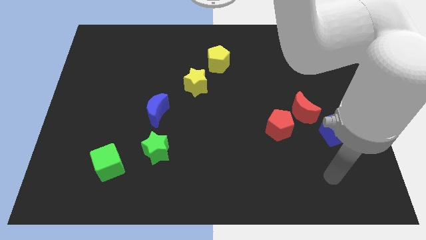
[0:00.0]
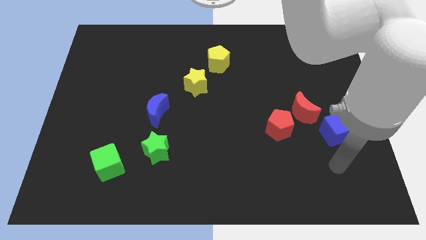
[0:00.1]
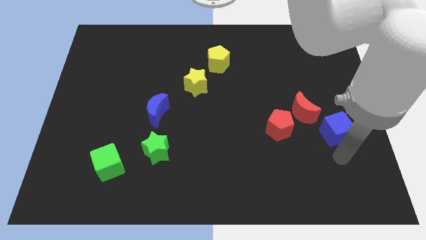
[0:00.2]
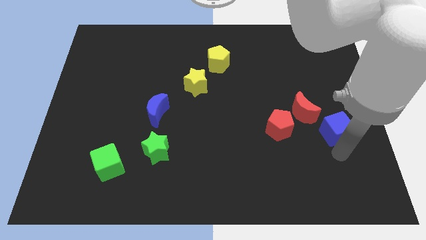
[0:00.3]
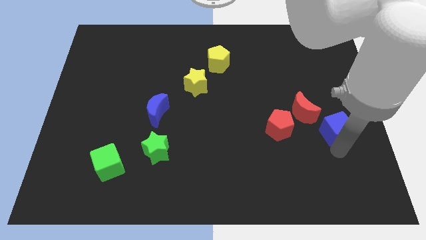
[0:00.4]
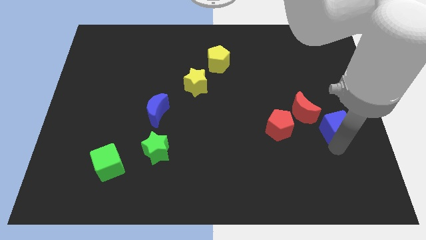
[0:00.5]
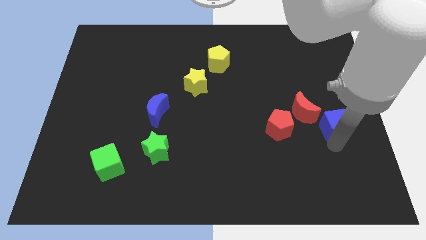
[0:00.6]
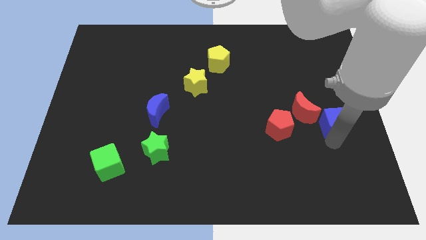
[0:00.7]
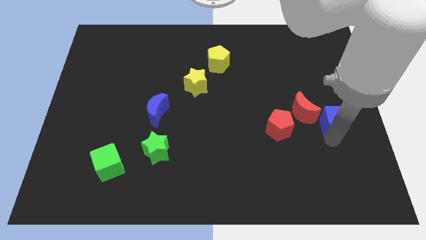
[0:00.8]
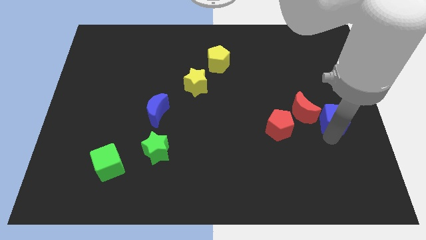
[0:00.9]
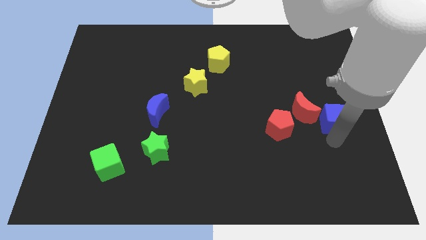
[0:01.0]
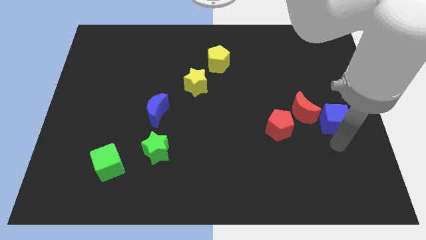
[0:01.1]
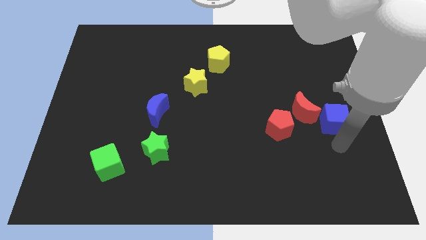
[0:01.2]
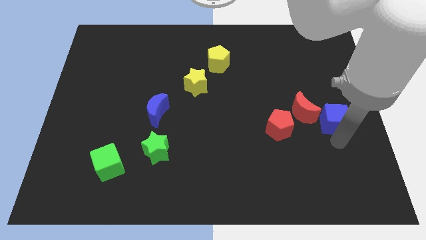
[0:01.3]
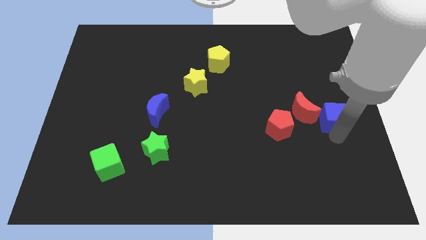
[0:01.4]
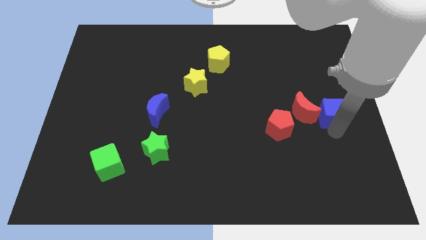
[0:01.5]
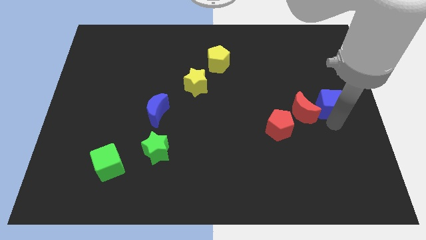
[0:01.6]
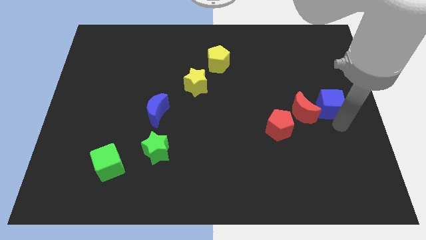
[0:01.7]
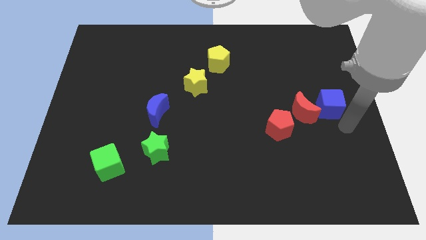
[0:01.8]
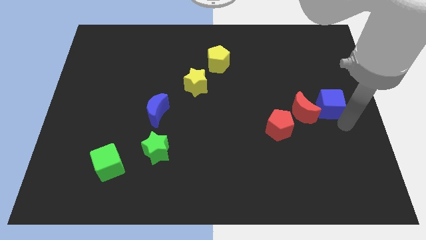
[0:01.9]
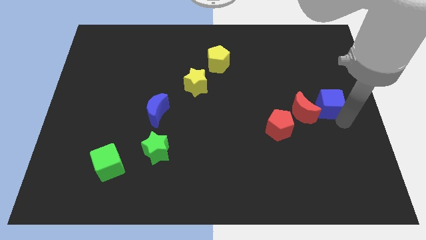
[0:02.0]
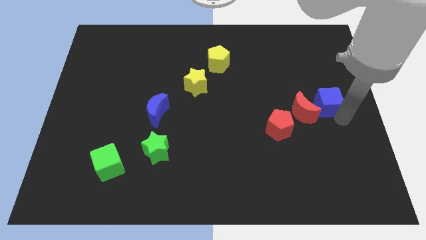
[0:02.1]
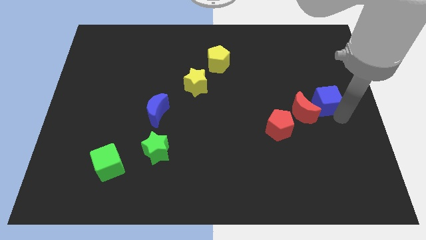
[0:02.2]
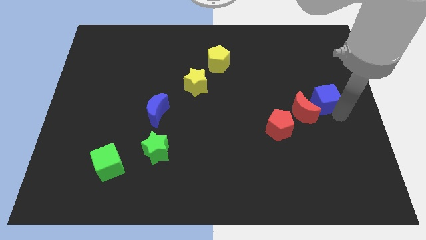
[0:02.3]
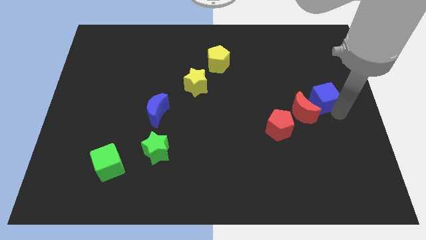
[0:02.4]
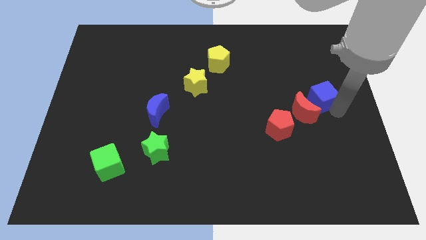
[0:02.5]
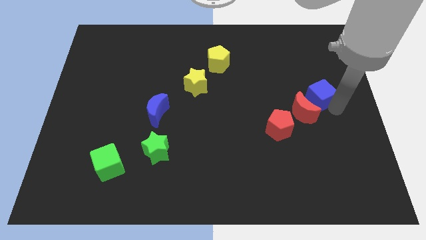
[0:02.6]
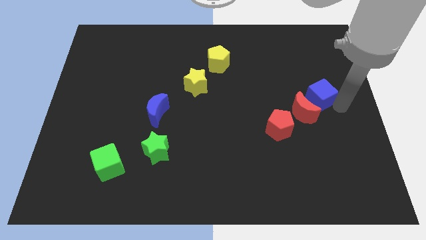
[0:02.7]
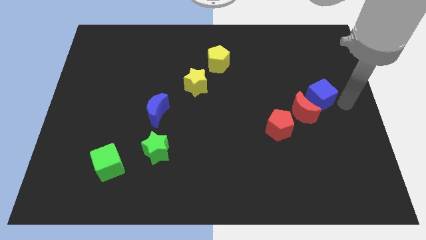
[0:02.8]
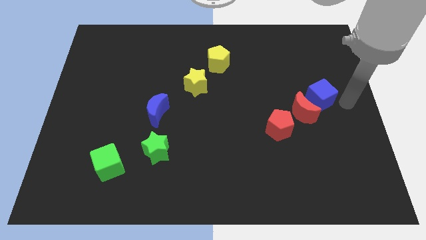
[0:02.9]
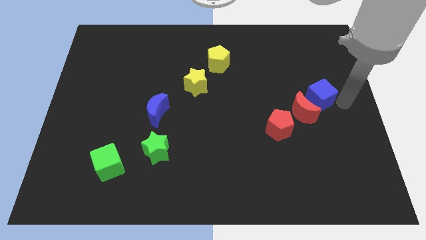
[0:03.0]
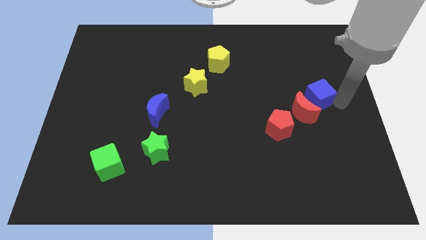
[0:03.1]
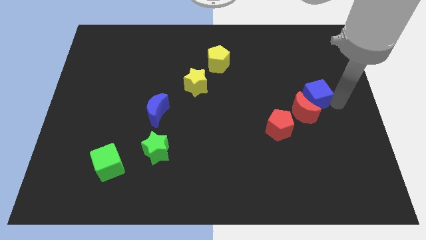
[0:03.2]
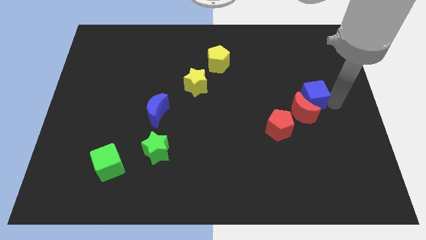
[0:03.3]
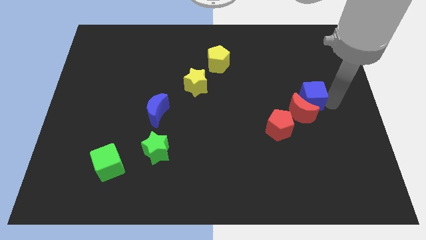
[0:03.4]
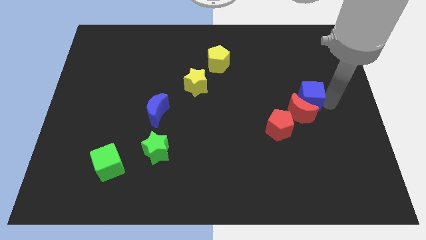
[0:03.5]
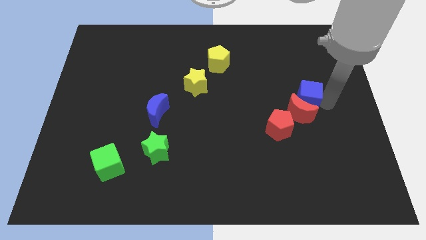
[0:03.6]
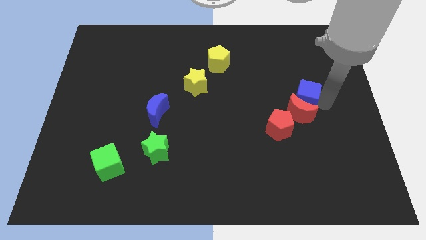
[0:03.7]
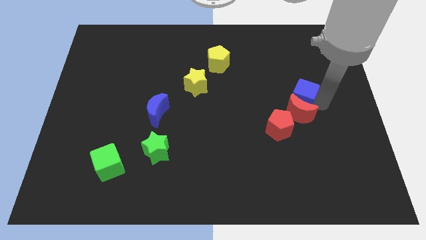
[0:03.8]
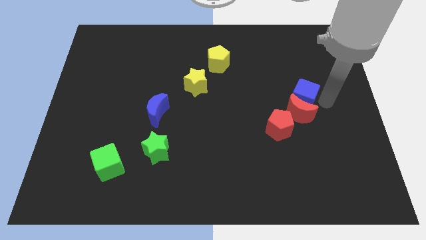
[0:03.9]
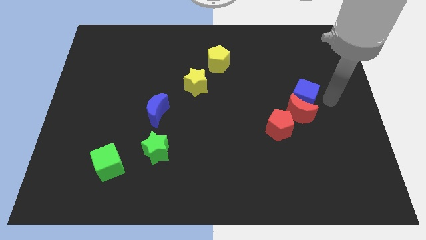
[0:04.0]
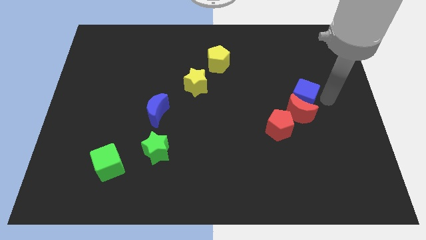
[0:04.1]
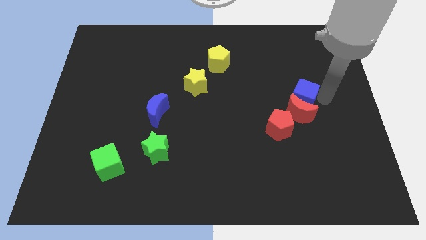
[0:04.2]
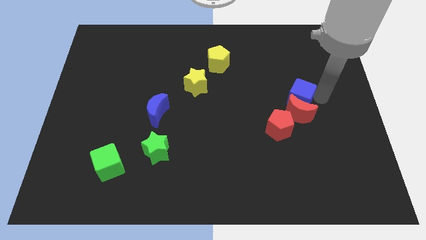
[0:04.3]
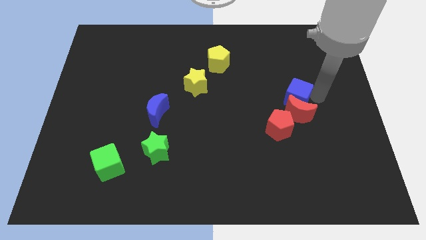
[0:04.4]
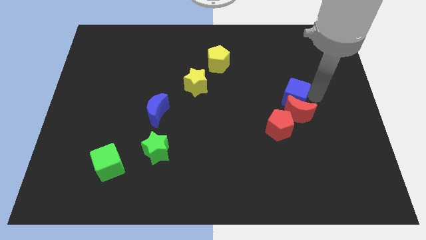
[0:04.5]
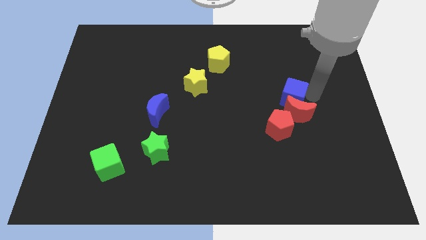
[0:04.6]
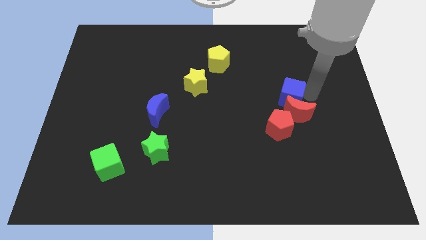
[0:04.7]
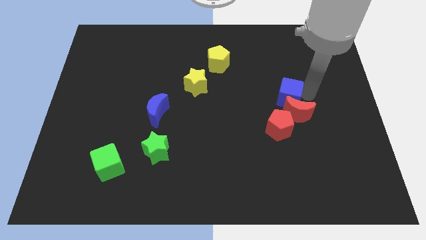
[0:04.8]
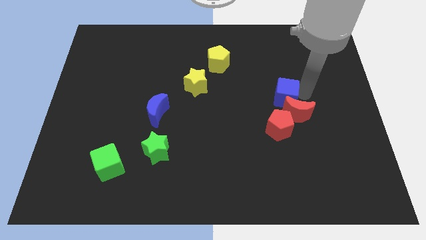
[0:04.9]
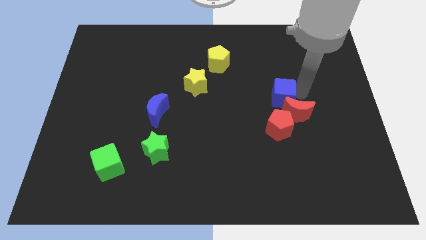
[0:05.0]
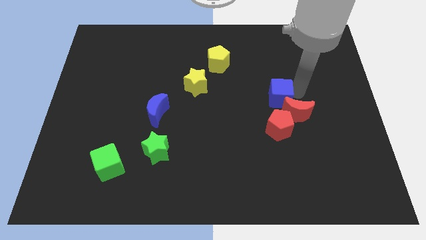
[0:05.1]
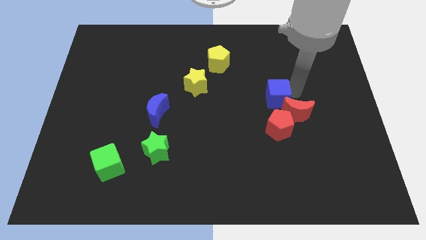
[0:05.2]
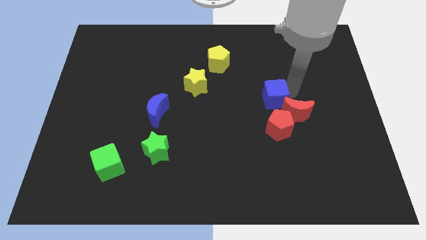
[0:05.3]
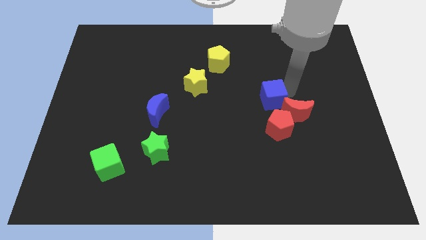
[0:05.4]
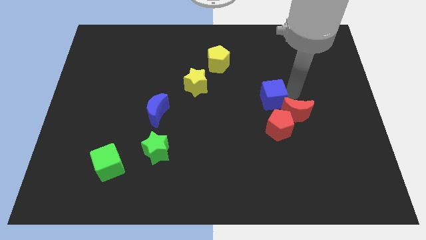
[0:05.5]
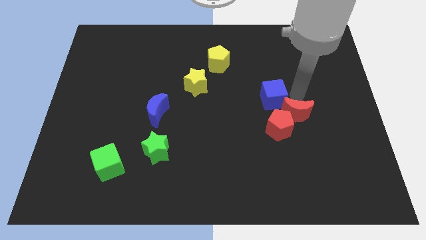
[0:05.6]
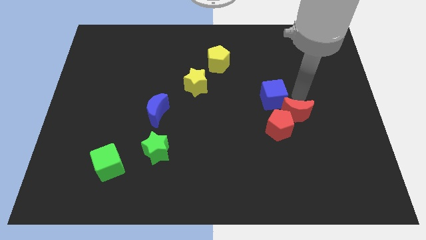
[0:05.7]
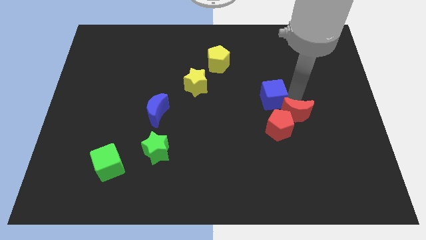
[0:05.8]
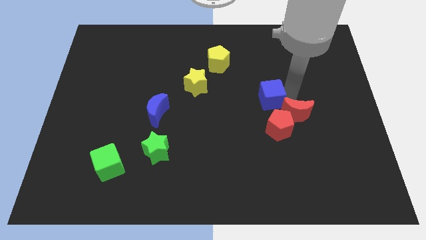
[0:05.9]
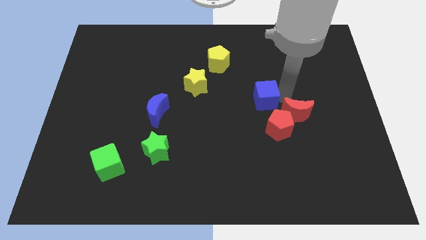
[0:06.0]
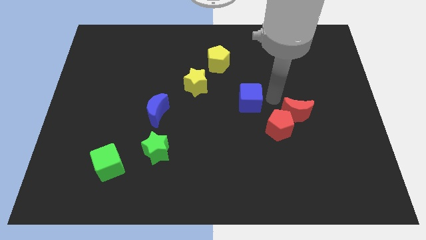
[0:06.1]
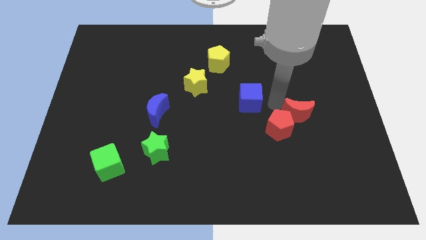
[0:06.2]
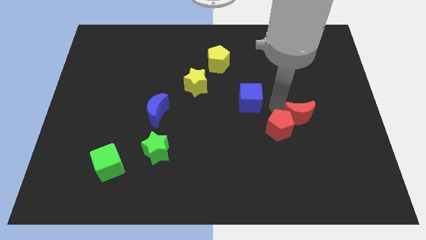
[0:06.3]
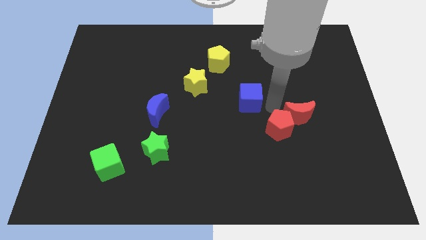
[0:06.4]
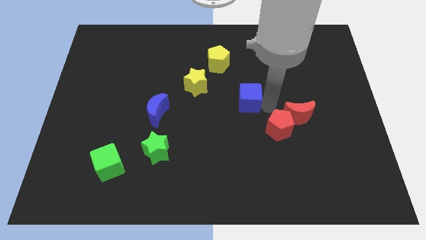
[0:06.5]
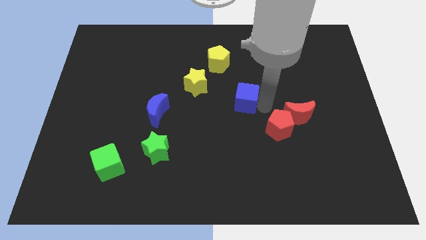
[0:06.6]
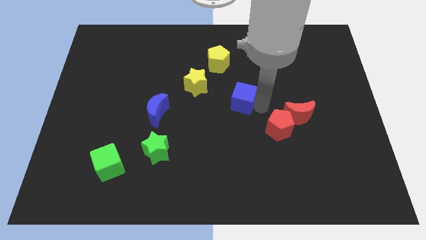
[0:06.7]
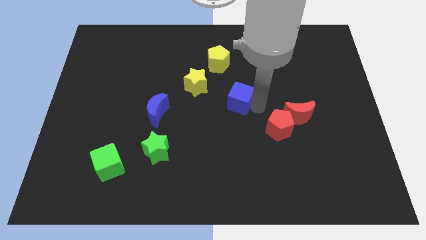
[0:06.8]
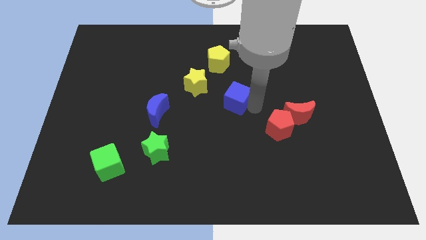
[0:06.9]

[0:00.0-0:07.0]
put the blue cube to the bottom side of the yellow pentagon
